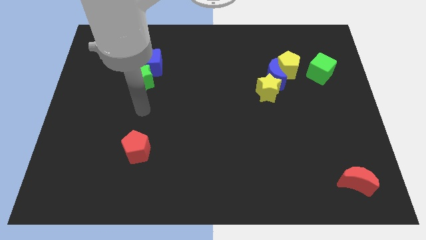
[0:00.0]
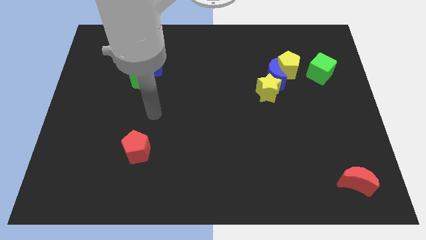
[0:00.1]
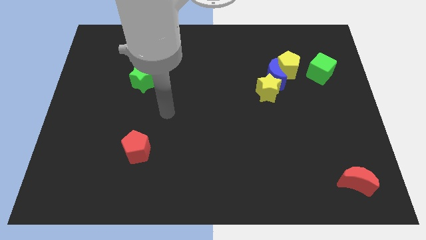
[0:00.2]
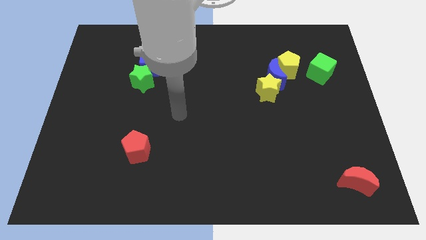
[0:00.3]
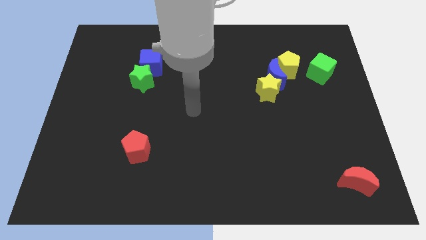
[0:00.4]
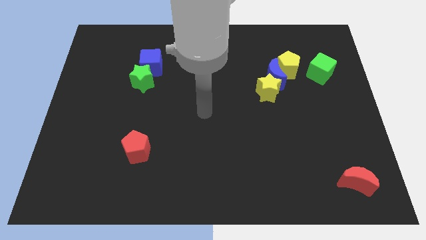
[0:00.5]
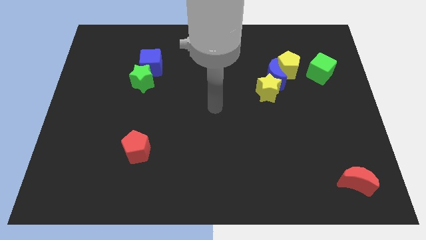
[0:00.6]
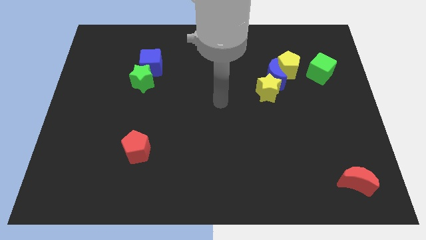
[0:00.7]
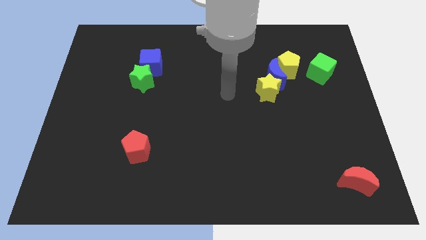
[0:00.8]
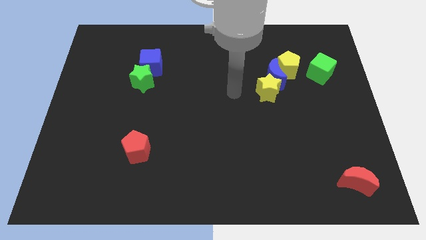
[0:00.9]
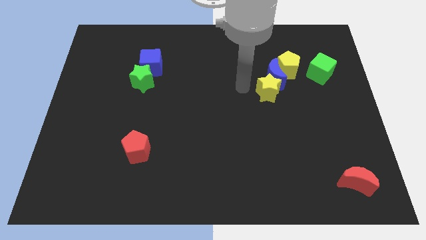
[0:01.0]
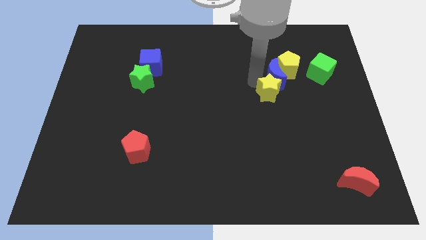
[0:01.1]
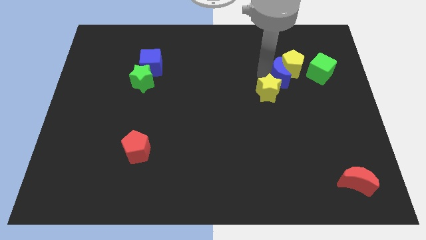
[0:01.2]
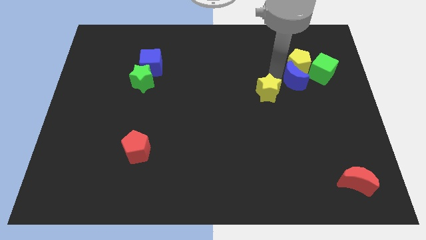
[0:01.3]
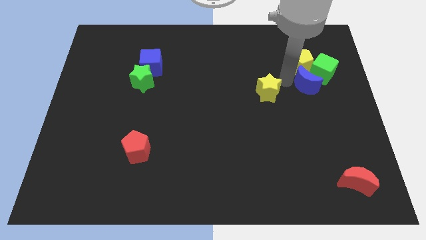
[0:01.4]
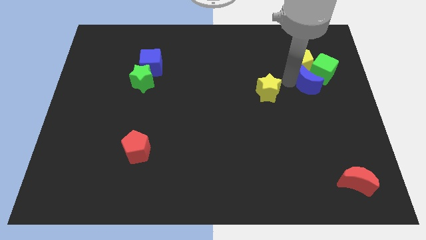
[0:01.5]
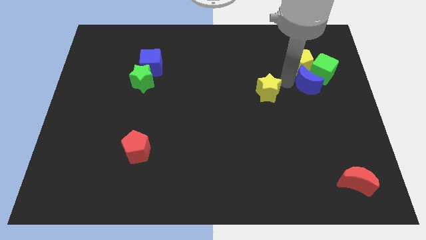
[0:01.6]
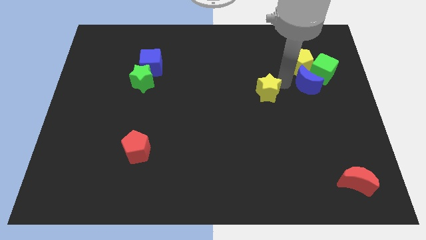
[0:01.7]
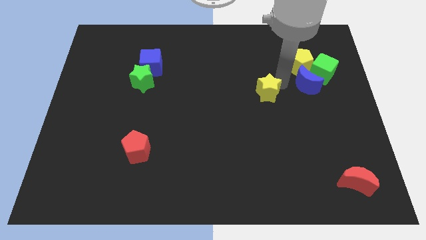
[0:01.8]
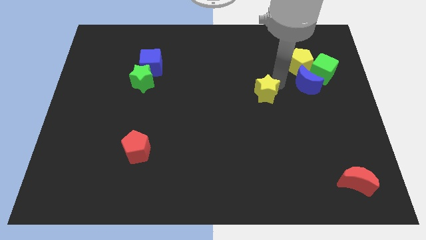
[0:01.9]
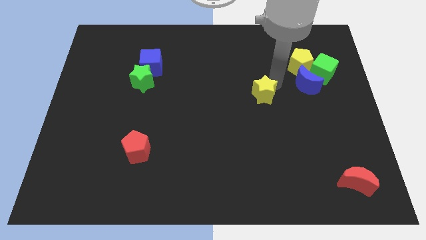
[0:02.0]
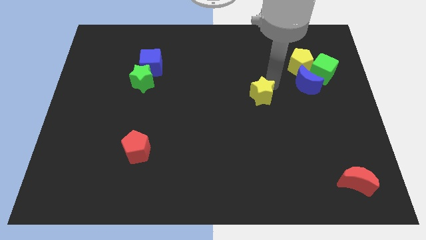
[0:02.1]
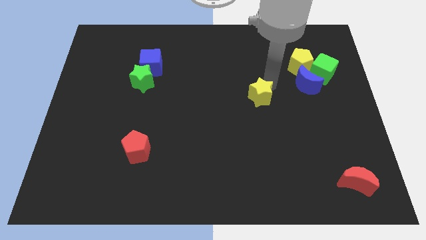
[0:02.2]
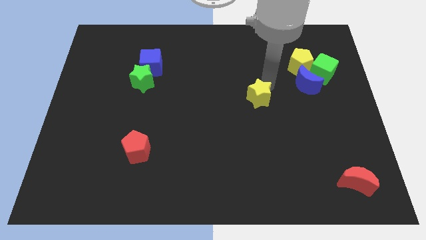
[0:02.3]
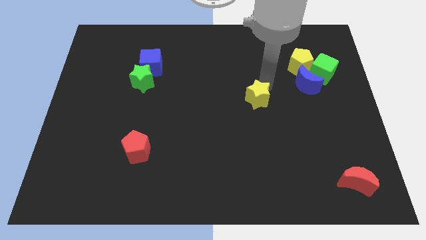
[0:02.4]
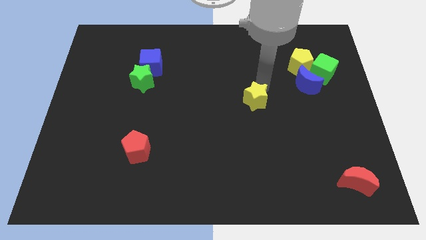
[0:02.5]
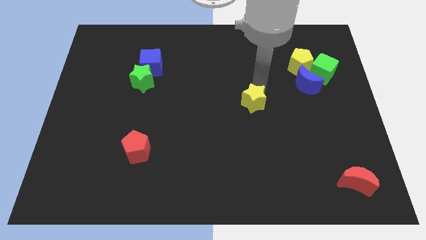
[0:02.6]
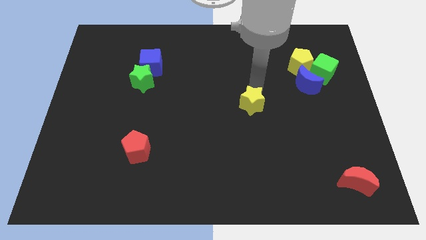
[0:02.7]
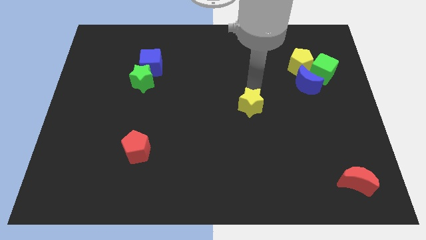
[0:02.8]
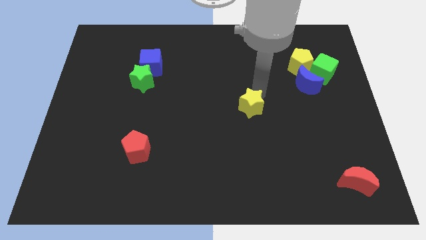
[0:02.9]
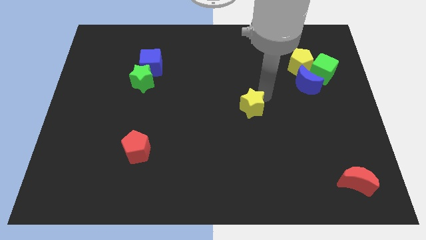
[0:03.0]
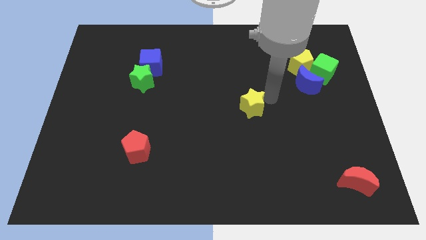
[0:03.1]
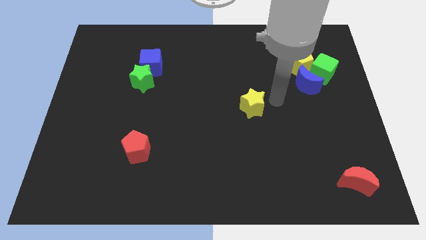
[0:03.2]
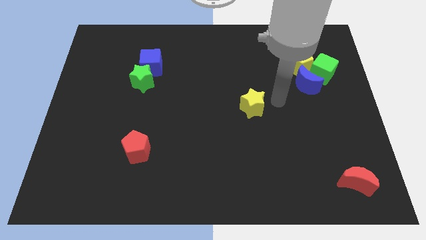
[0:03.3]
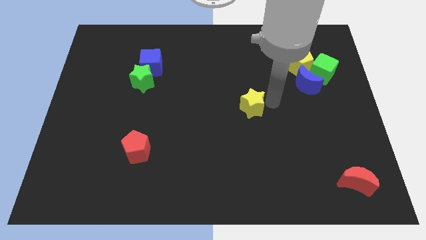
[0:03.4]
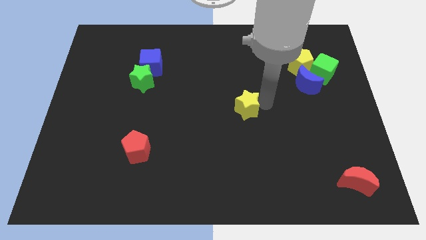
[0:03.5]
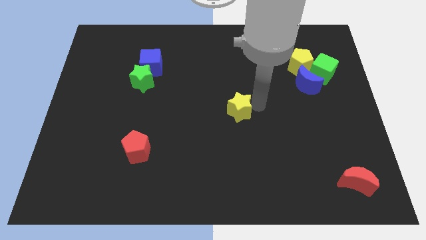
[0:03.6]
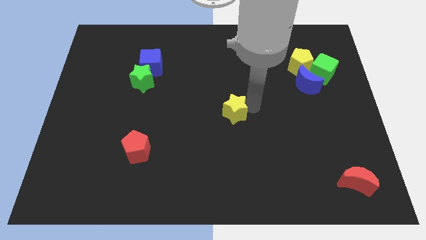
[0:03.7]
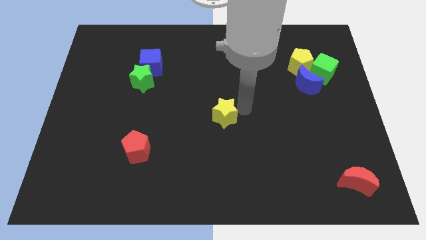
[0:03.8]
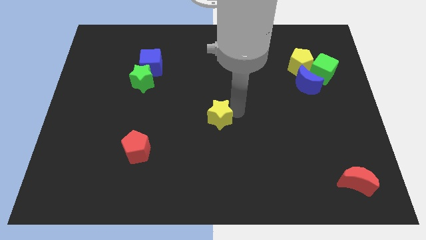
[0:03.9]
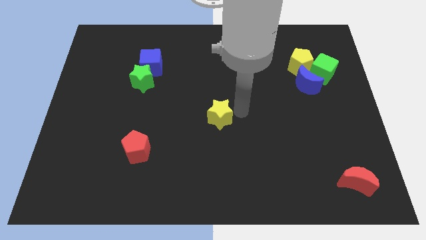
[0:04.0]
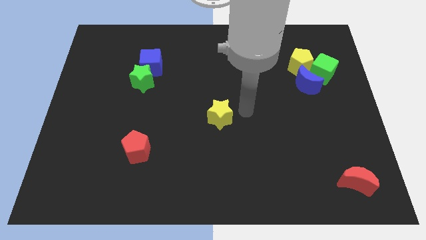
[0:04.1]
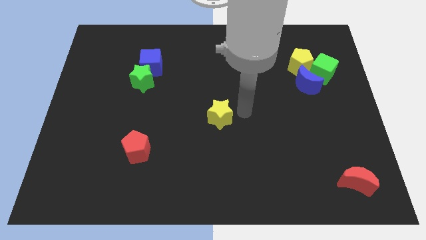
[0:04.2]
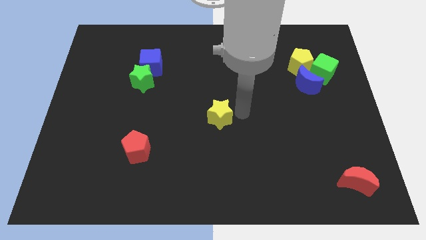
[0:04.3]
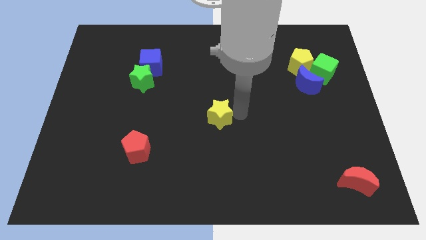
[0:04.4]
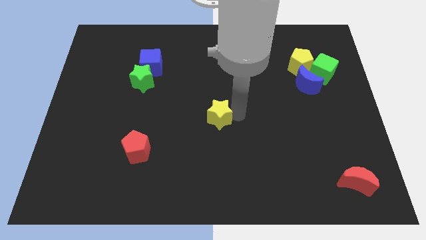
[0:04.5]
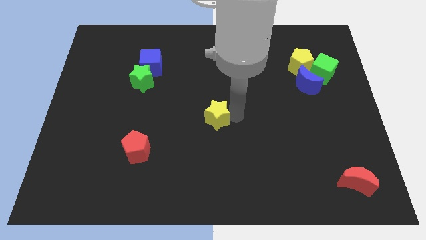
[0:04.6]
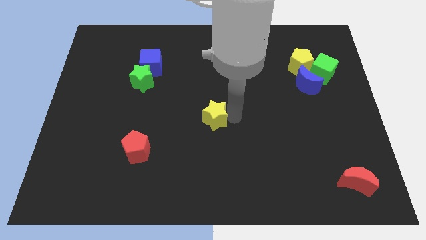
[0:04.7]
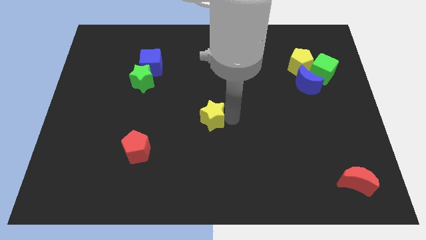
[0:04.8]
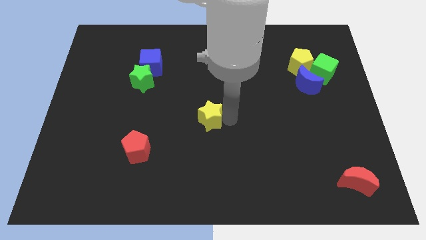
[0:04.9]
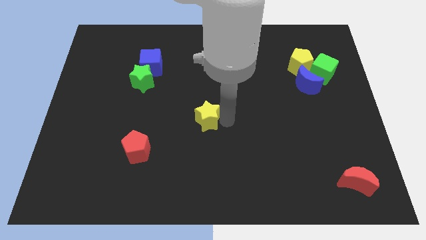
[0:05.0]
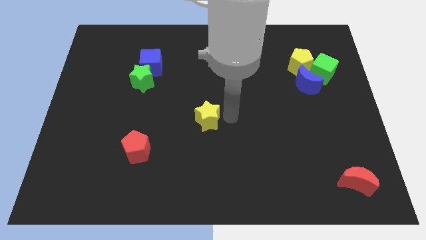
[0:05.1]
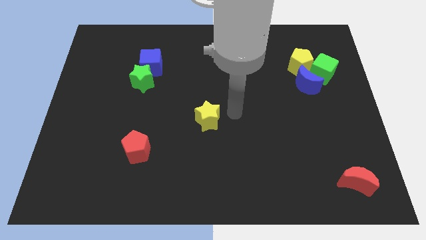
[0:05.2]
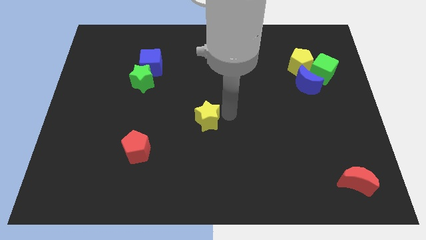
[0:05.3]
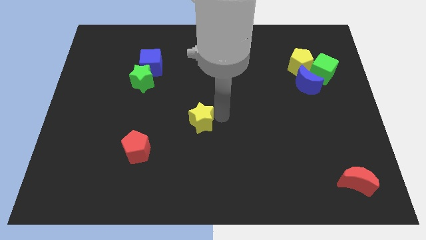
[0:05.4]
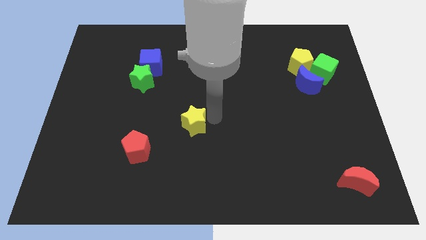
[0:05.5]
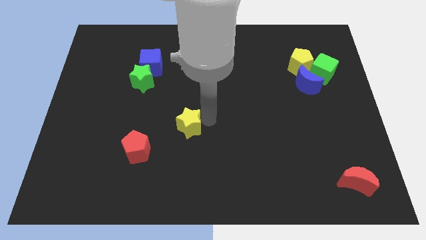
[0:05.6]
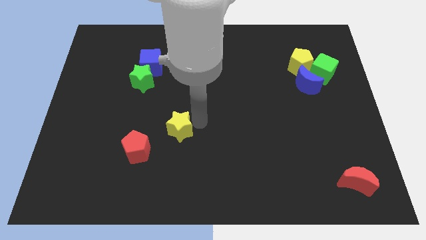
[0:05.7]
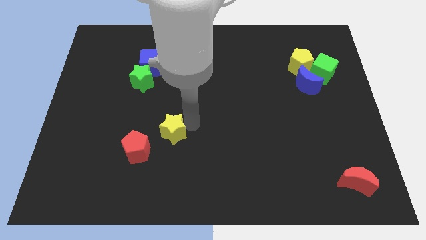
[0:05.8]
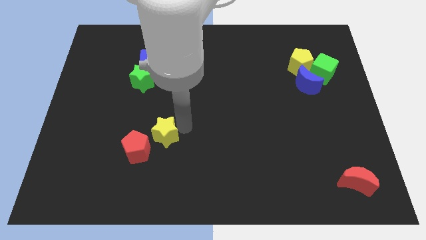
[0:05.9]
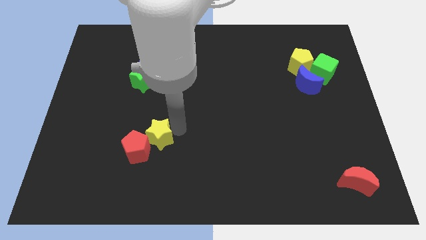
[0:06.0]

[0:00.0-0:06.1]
push the yellow star next to the red pentagon
